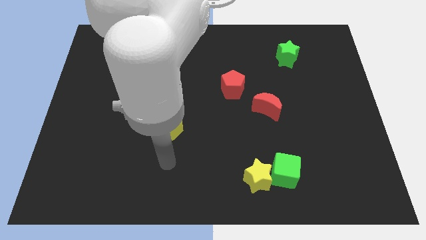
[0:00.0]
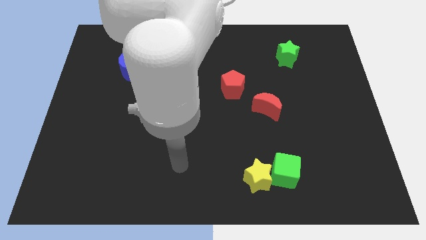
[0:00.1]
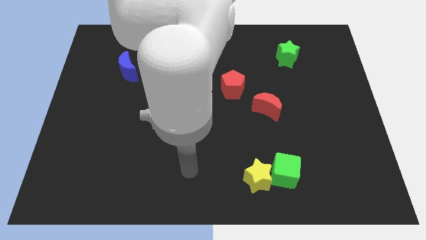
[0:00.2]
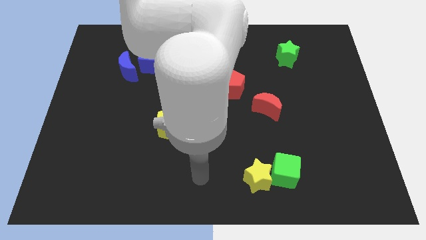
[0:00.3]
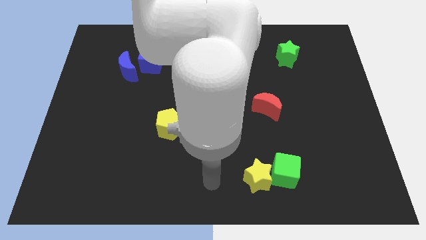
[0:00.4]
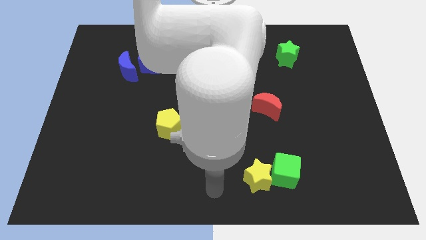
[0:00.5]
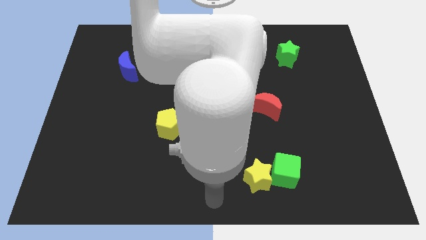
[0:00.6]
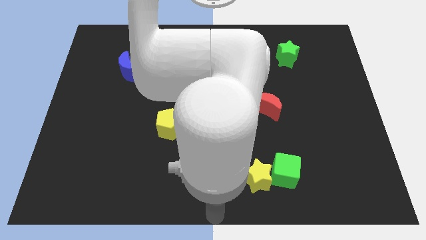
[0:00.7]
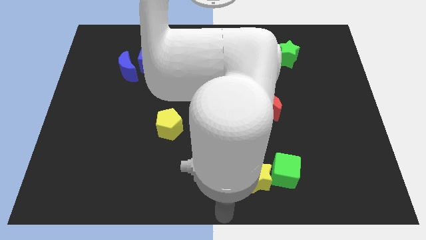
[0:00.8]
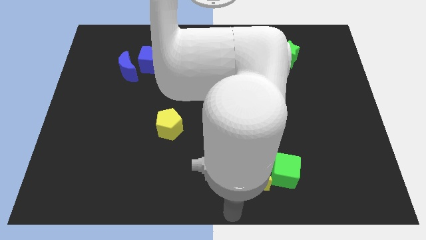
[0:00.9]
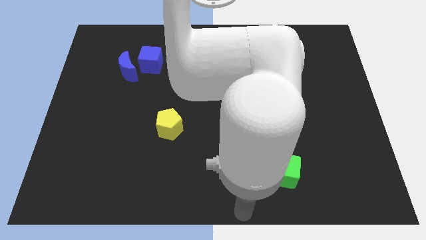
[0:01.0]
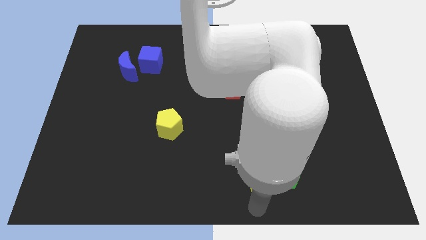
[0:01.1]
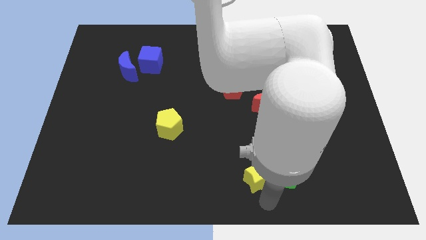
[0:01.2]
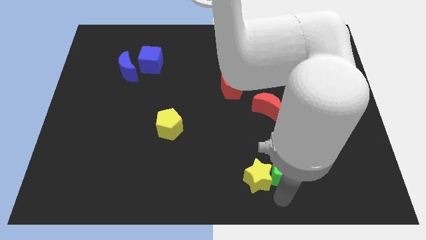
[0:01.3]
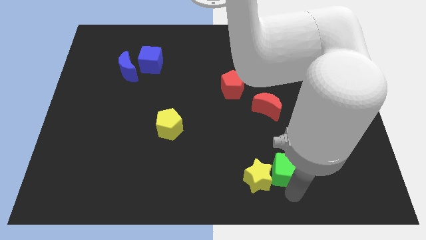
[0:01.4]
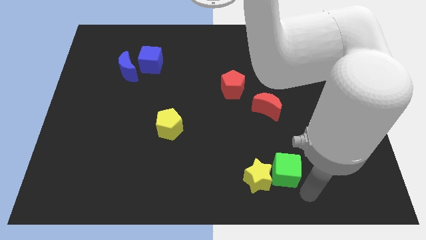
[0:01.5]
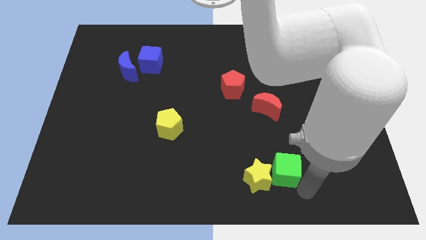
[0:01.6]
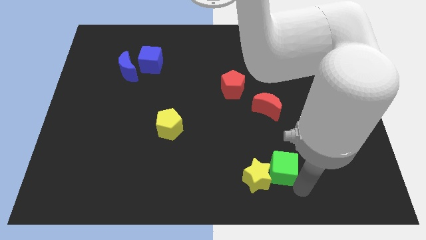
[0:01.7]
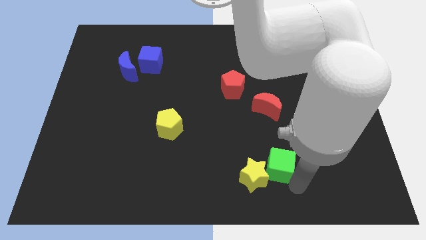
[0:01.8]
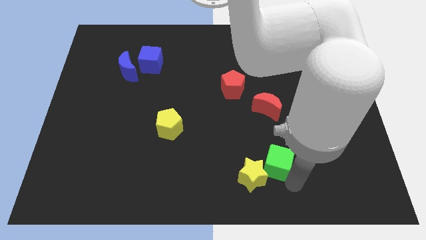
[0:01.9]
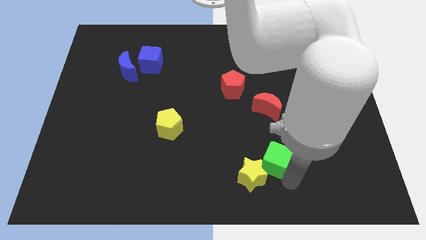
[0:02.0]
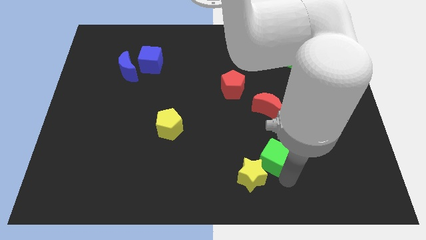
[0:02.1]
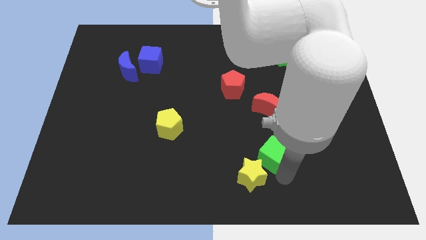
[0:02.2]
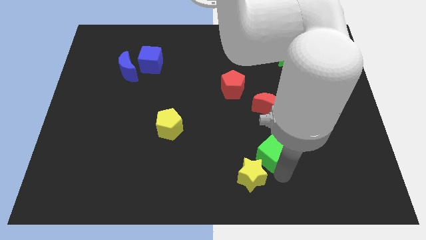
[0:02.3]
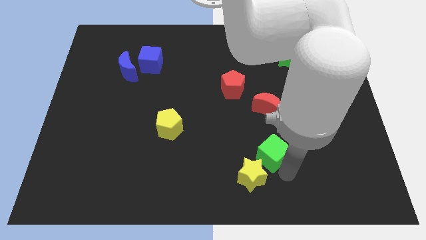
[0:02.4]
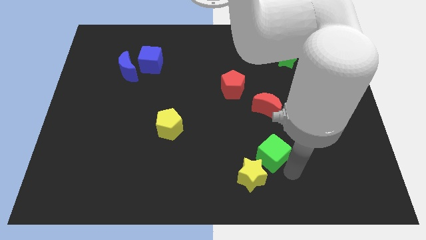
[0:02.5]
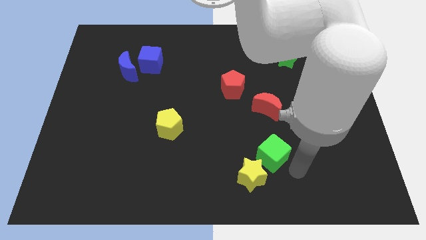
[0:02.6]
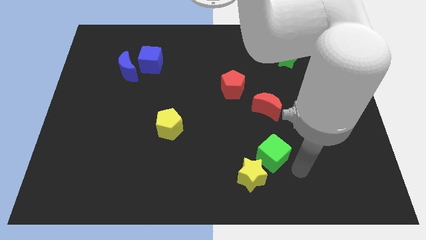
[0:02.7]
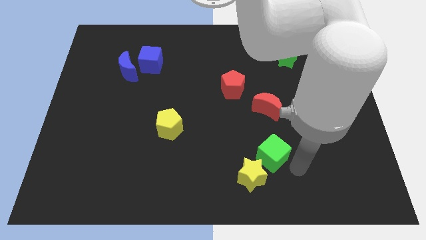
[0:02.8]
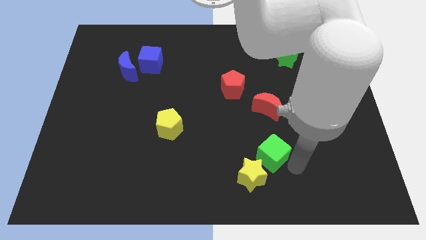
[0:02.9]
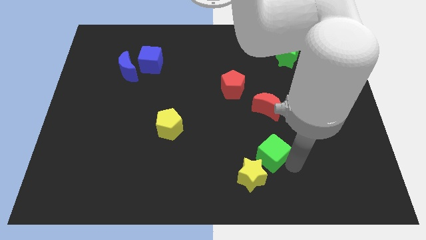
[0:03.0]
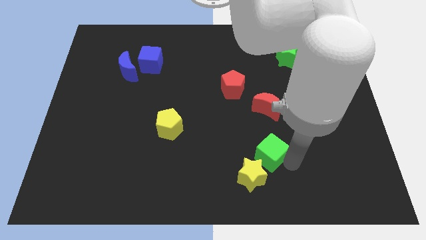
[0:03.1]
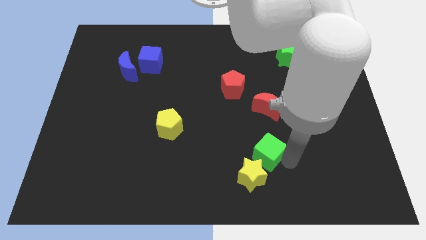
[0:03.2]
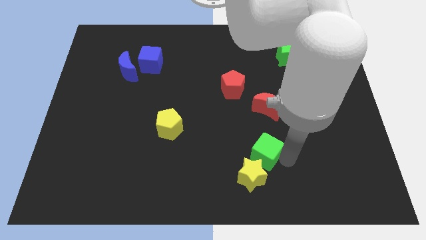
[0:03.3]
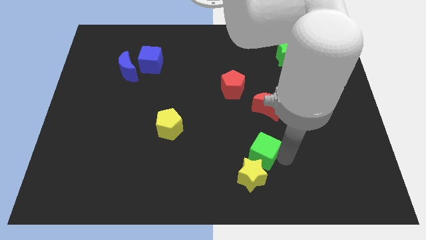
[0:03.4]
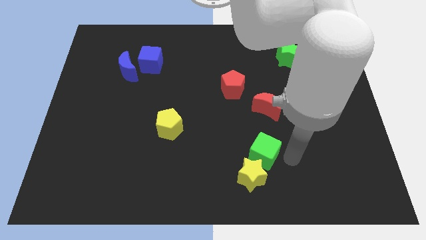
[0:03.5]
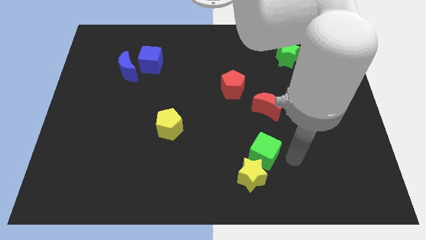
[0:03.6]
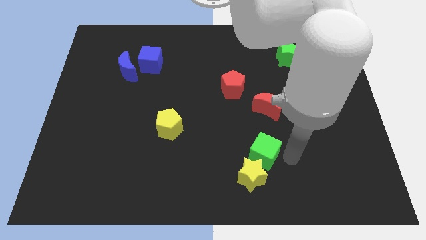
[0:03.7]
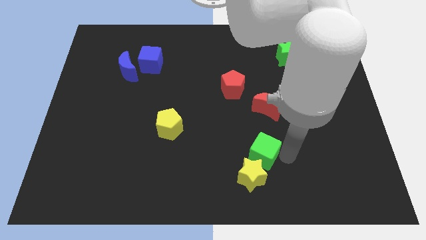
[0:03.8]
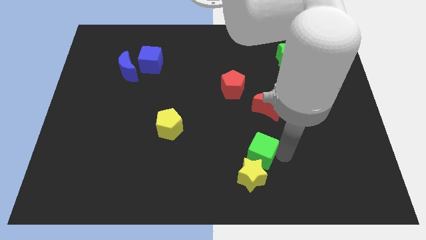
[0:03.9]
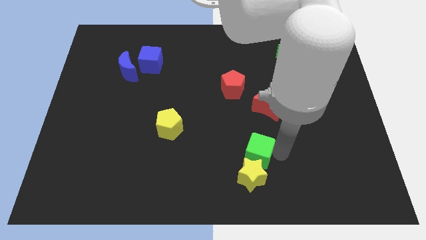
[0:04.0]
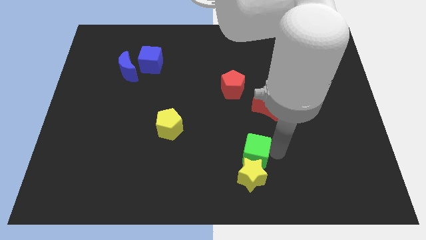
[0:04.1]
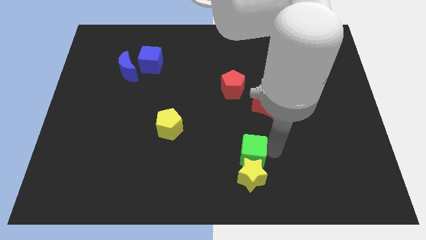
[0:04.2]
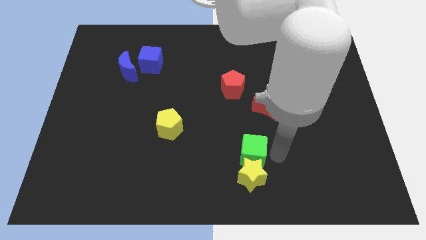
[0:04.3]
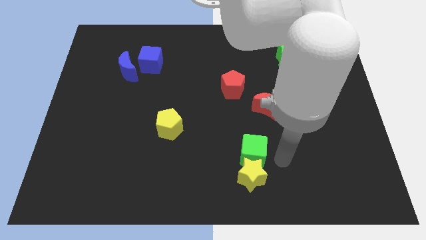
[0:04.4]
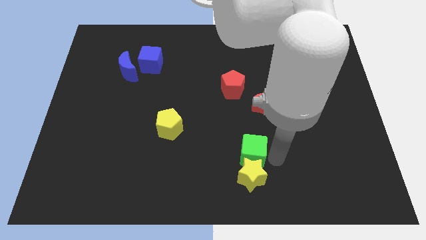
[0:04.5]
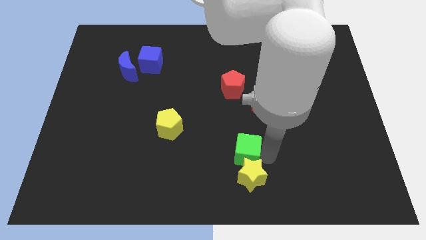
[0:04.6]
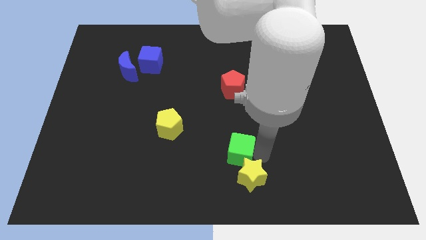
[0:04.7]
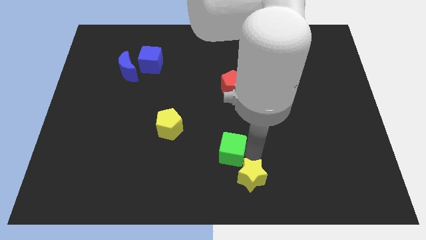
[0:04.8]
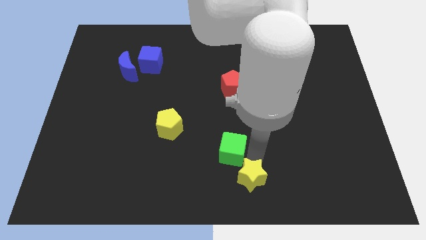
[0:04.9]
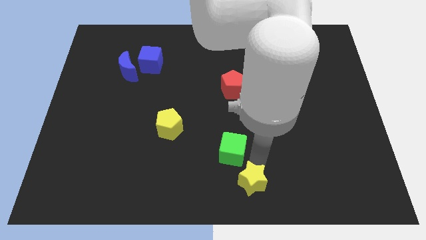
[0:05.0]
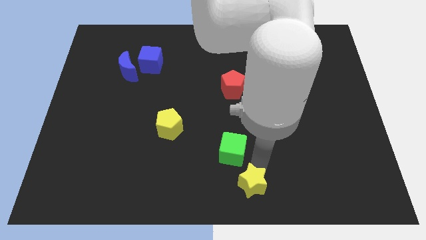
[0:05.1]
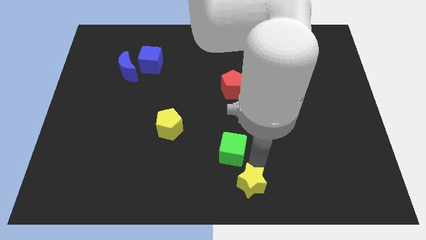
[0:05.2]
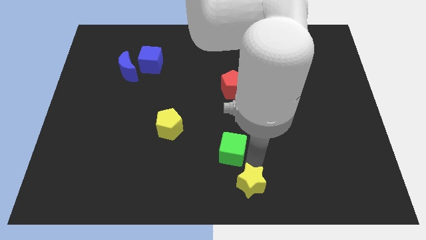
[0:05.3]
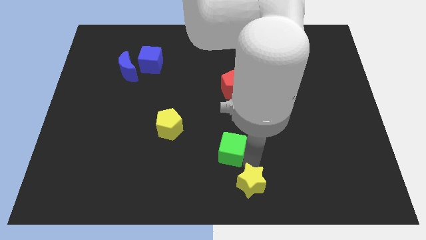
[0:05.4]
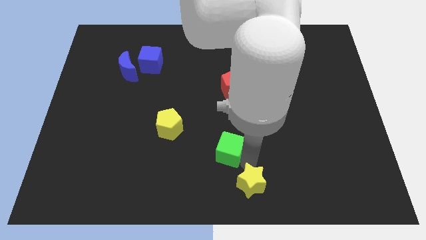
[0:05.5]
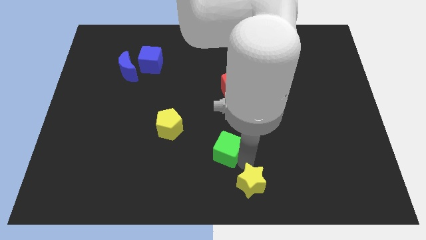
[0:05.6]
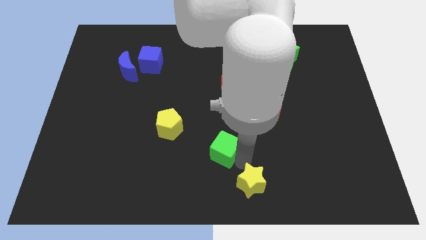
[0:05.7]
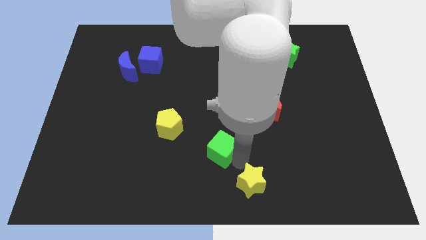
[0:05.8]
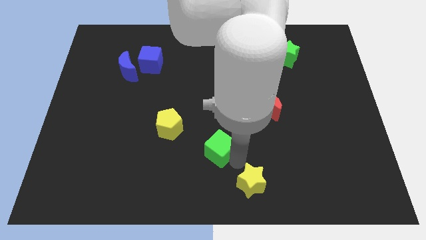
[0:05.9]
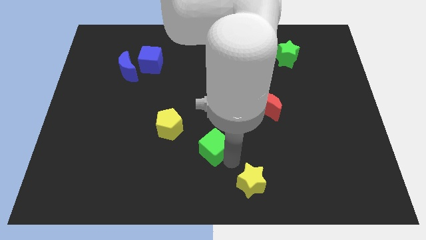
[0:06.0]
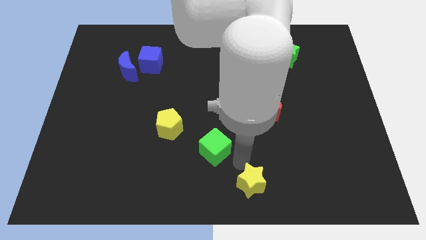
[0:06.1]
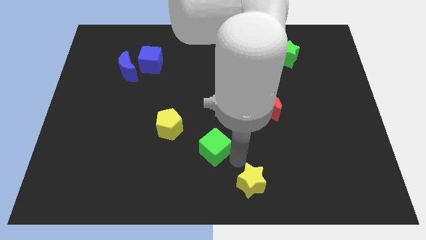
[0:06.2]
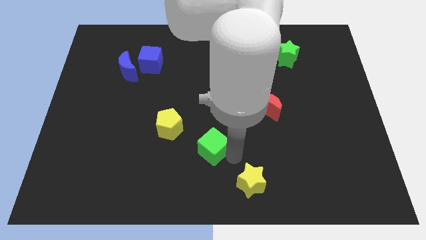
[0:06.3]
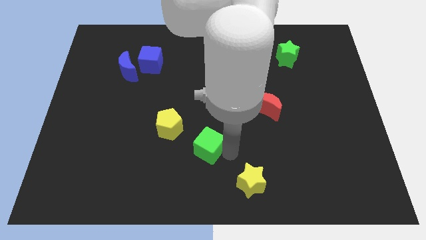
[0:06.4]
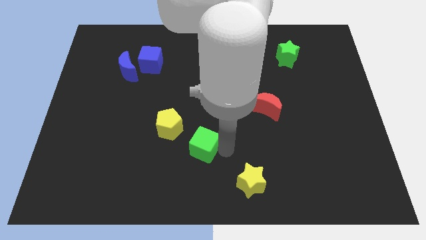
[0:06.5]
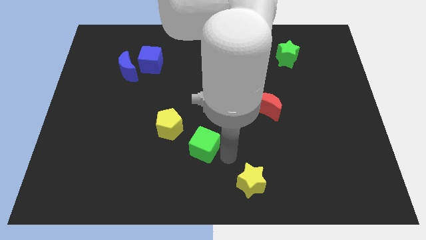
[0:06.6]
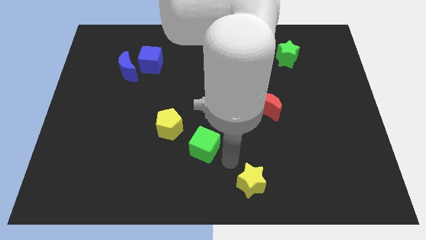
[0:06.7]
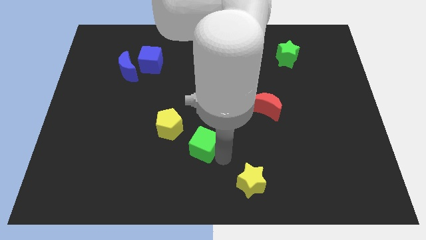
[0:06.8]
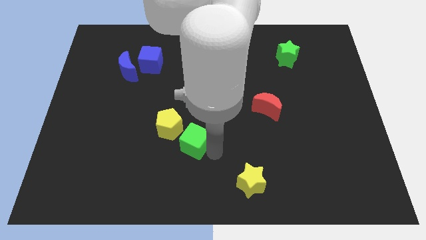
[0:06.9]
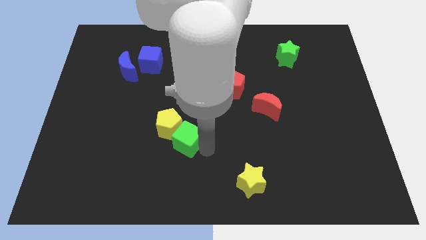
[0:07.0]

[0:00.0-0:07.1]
push the green cube to the yellow pentagon
